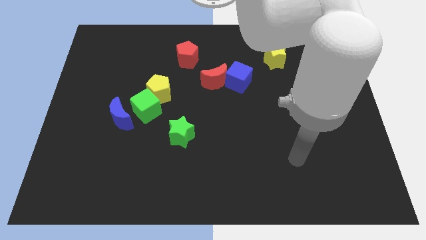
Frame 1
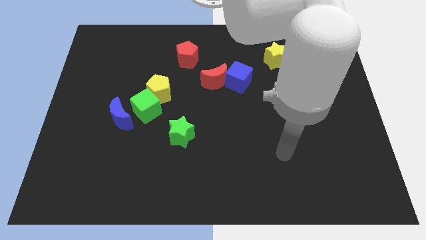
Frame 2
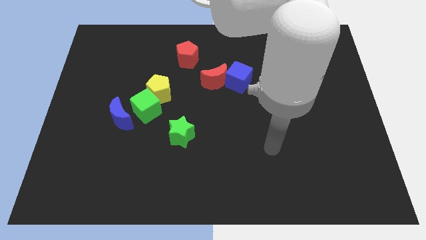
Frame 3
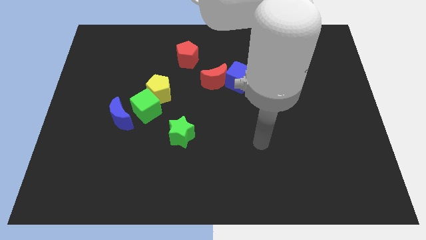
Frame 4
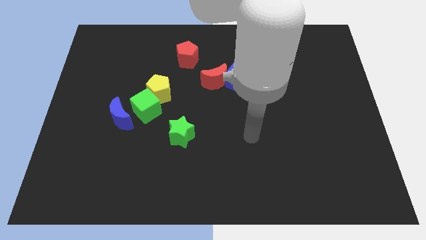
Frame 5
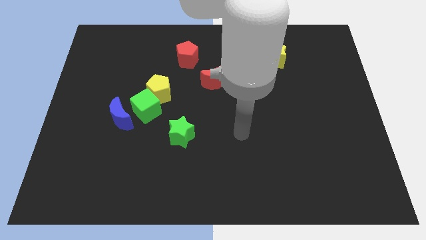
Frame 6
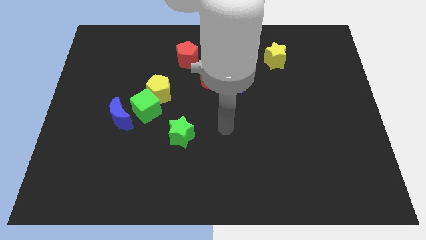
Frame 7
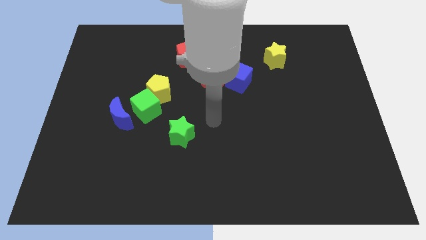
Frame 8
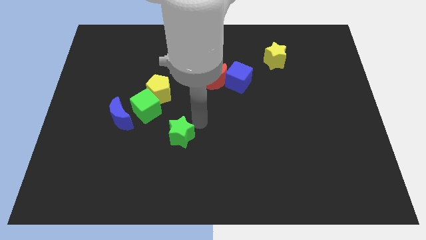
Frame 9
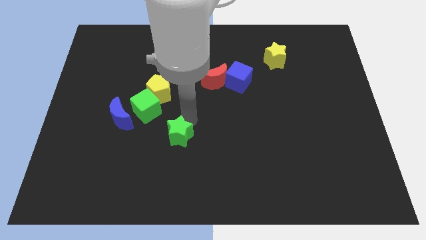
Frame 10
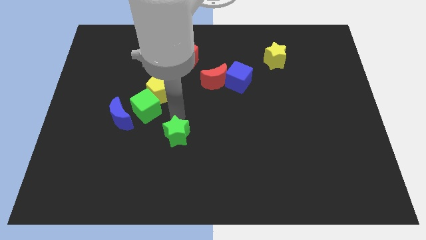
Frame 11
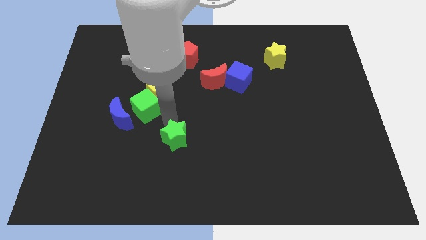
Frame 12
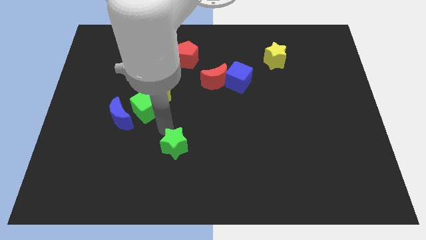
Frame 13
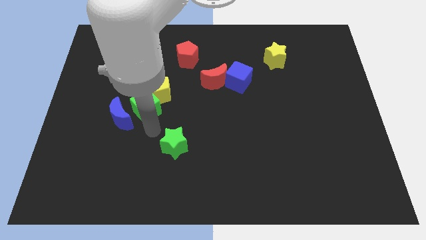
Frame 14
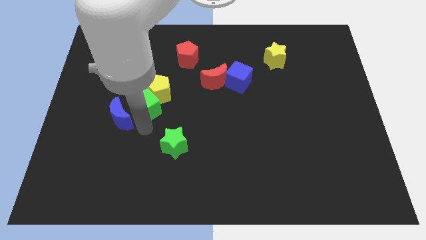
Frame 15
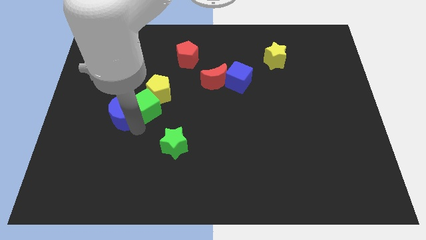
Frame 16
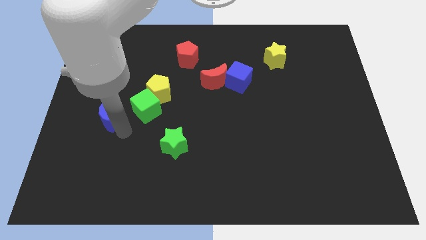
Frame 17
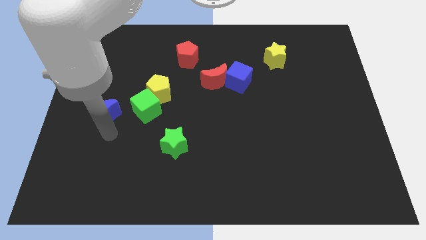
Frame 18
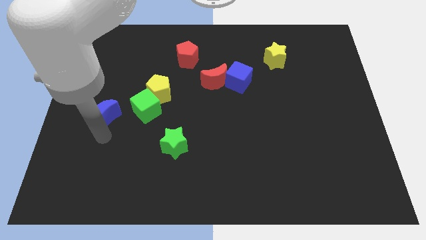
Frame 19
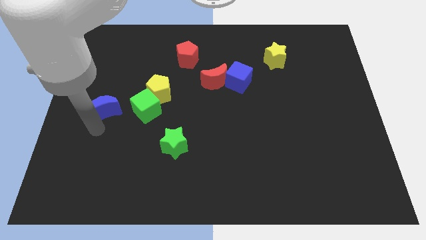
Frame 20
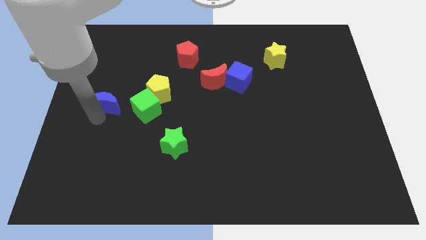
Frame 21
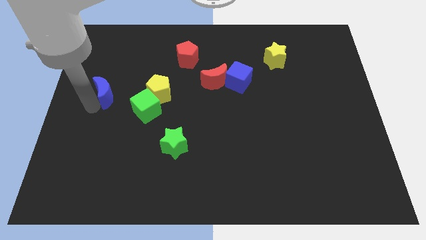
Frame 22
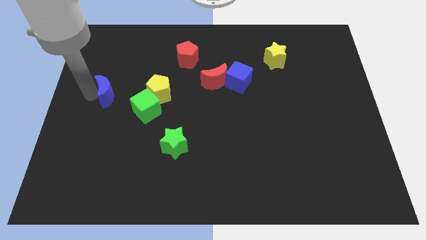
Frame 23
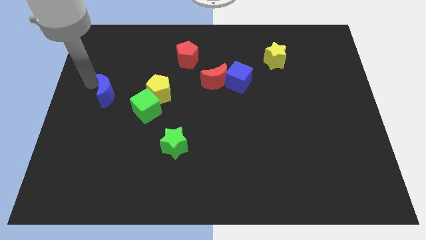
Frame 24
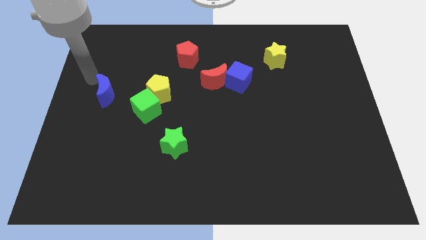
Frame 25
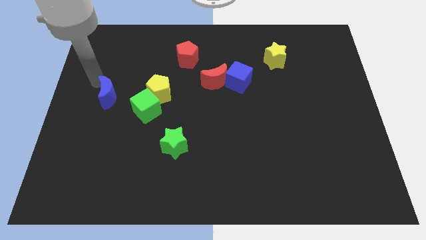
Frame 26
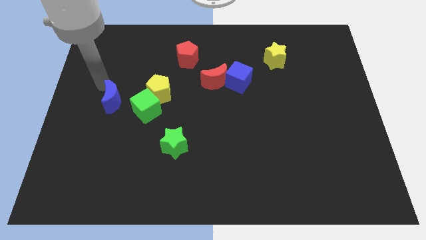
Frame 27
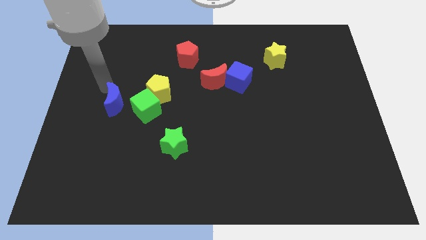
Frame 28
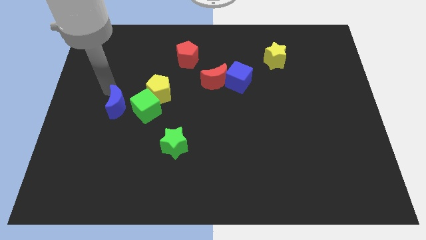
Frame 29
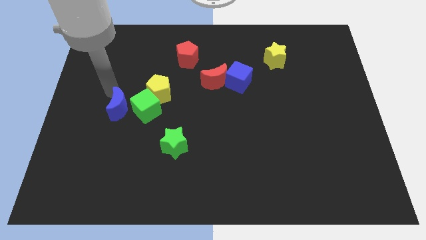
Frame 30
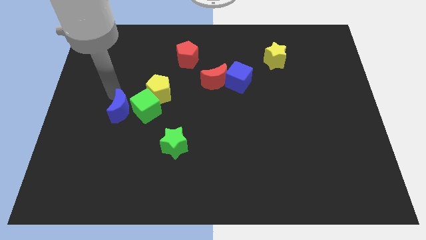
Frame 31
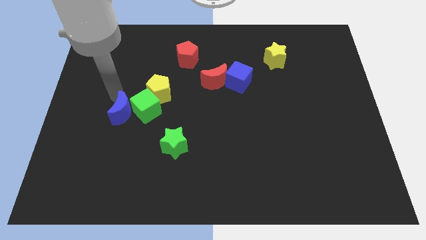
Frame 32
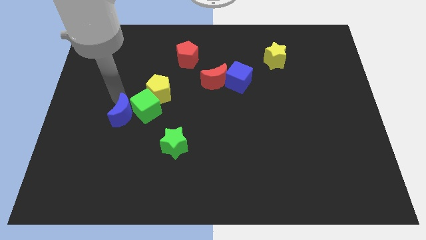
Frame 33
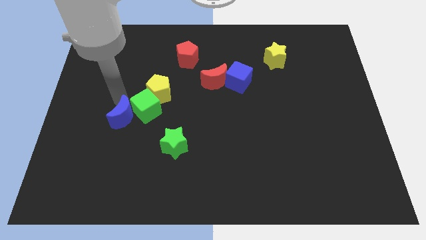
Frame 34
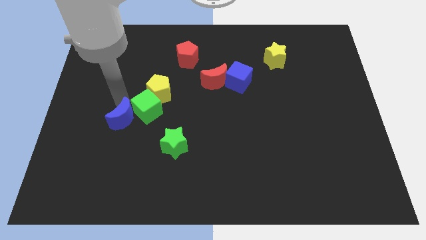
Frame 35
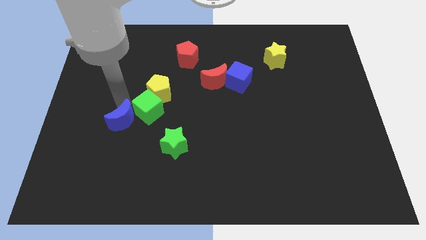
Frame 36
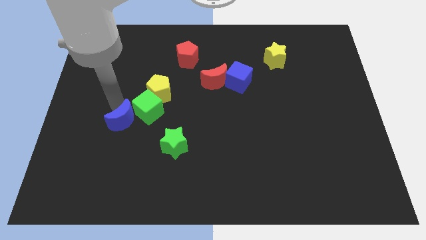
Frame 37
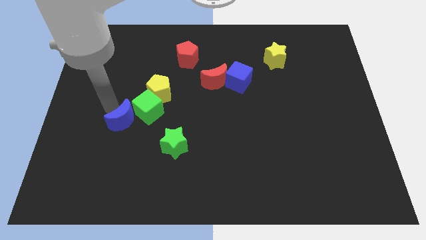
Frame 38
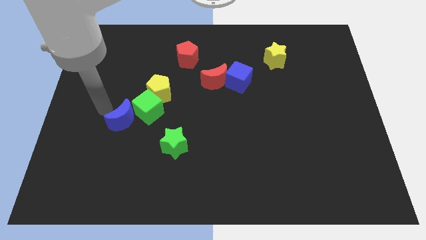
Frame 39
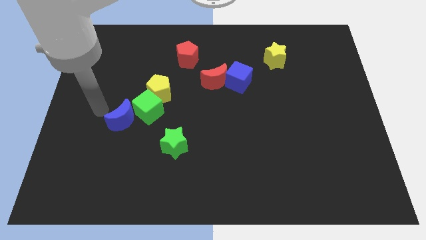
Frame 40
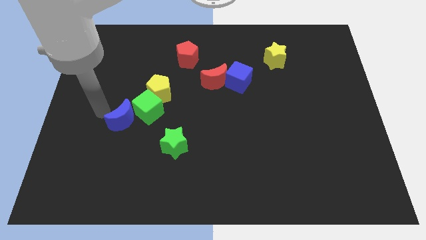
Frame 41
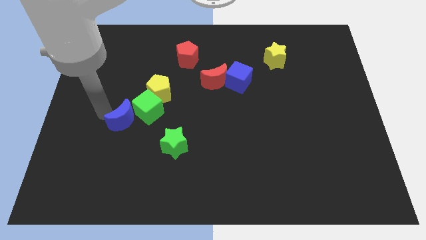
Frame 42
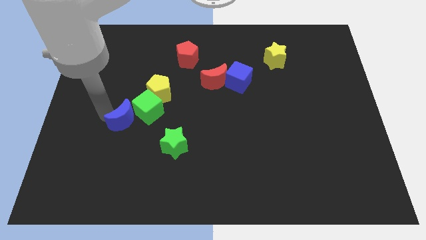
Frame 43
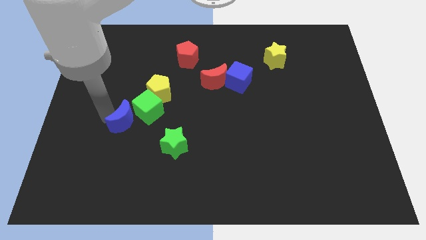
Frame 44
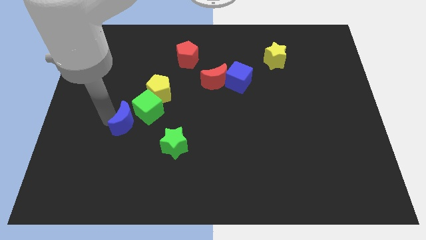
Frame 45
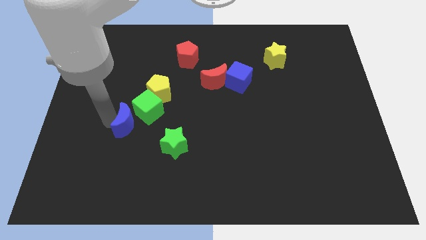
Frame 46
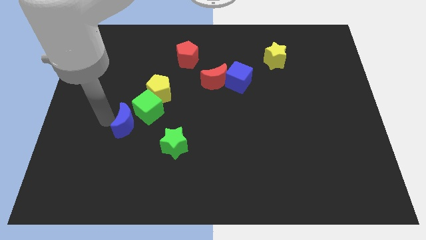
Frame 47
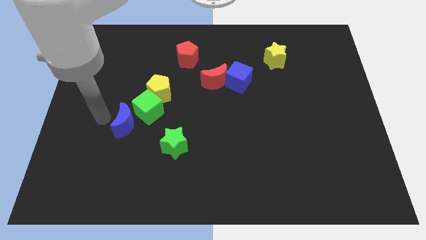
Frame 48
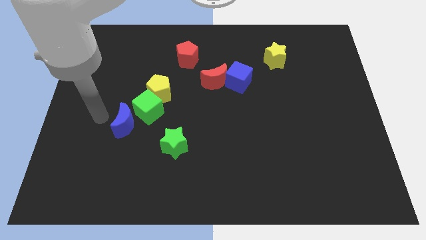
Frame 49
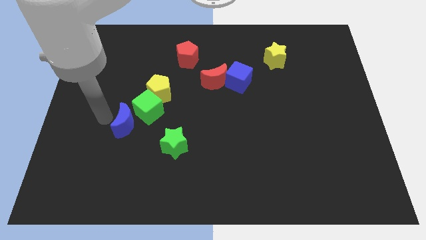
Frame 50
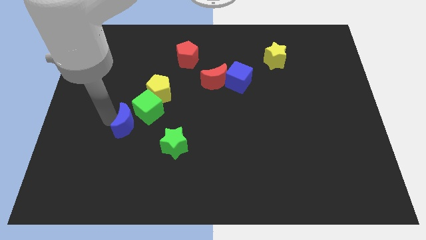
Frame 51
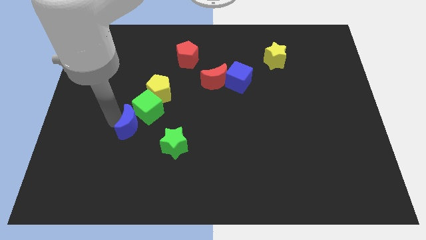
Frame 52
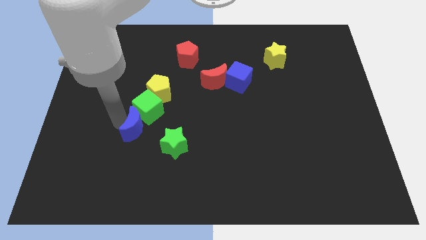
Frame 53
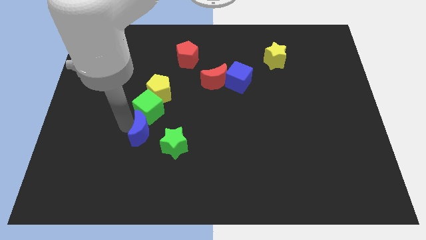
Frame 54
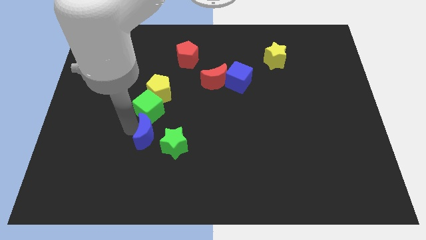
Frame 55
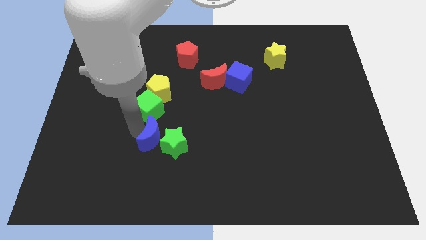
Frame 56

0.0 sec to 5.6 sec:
move the blue moon next to the green star

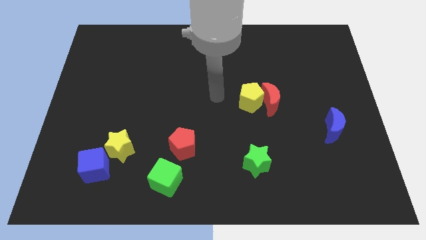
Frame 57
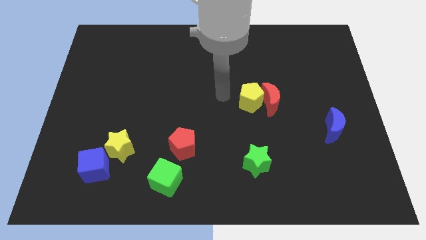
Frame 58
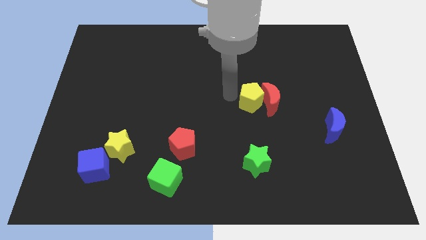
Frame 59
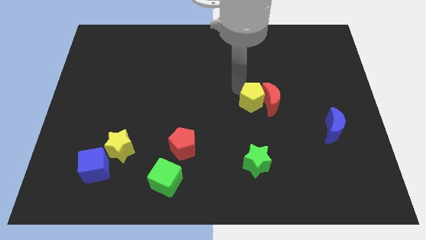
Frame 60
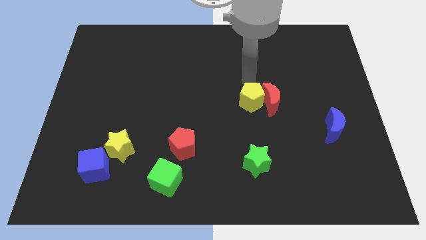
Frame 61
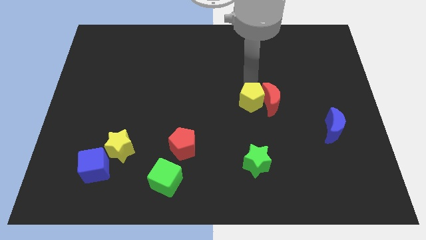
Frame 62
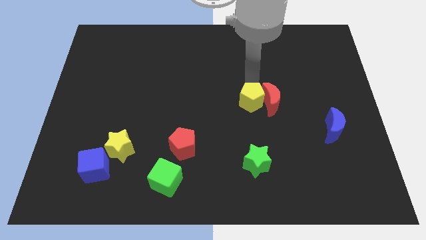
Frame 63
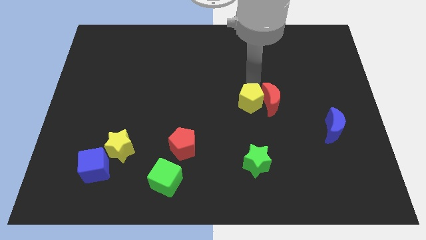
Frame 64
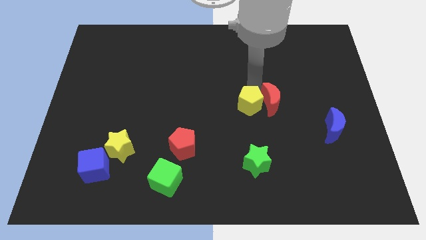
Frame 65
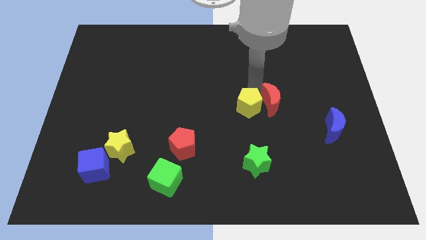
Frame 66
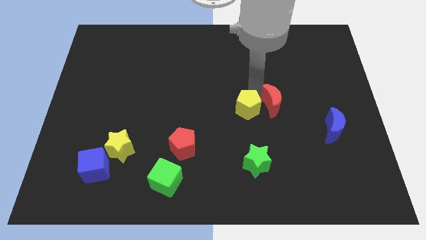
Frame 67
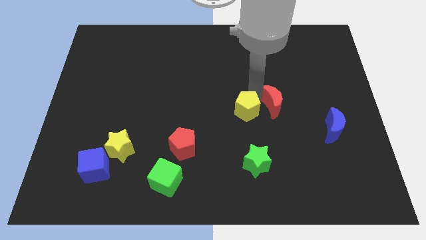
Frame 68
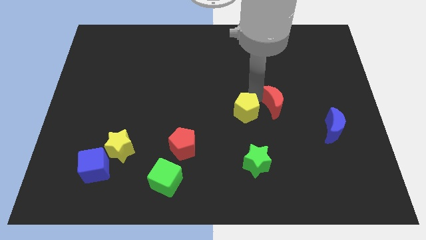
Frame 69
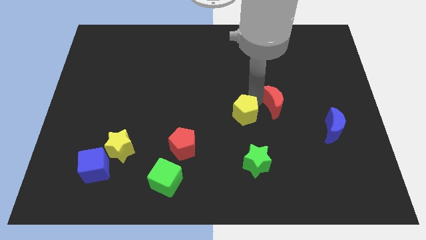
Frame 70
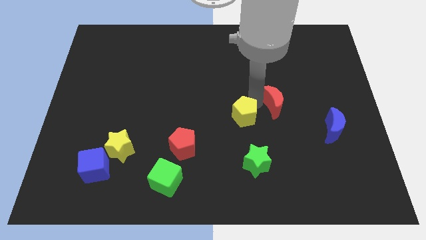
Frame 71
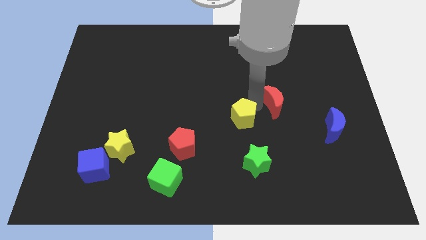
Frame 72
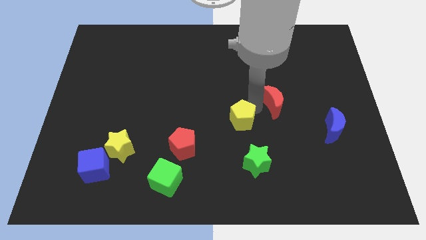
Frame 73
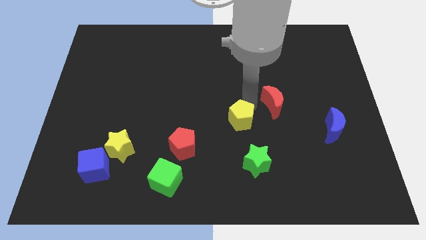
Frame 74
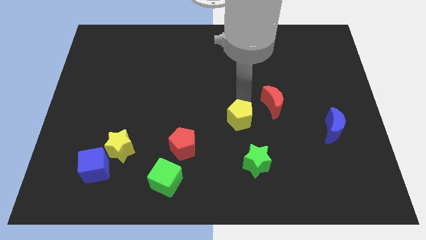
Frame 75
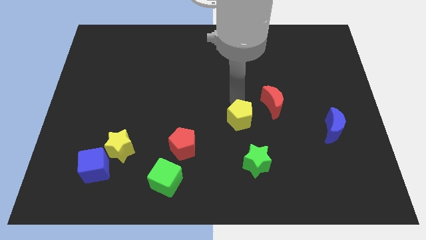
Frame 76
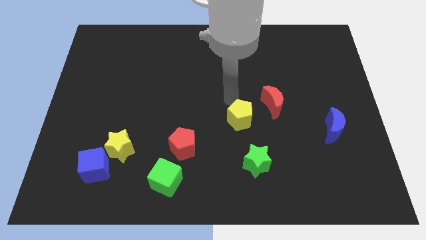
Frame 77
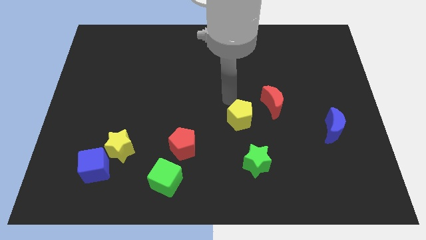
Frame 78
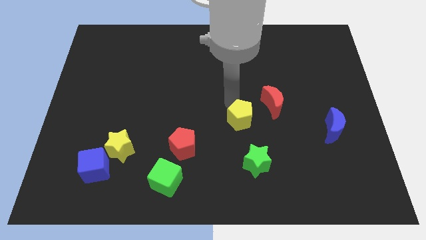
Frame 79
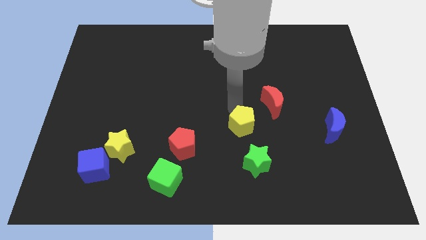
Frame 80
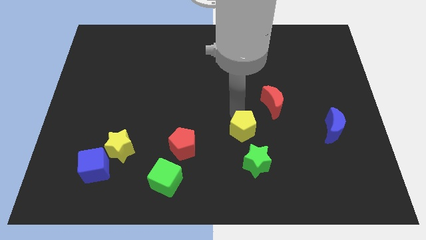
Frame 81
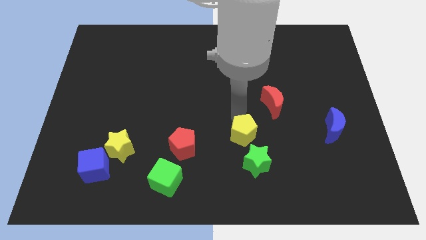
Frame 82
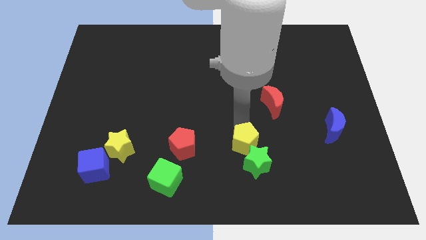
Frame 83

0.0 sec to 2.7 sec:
put the yellow pentagon close to the green star
